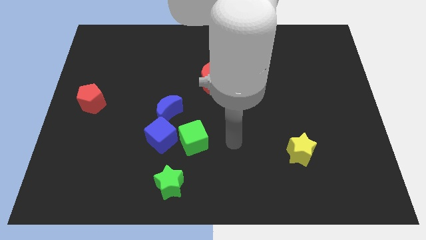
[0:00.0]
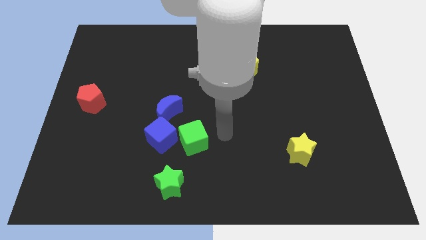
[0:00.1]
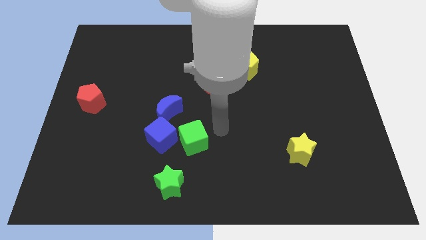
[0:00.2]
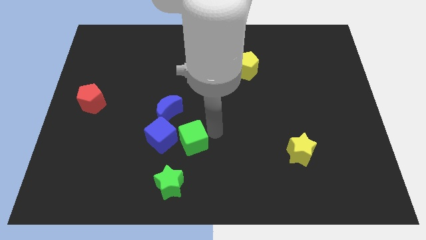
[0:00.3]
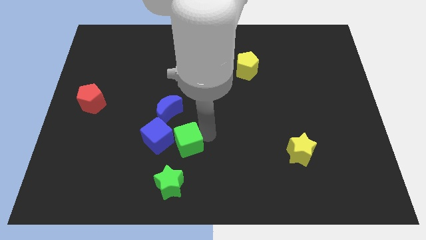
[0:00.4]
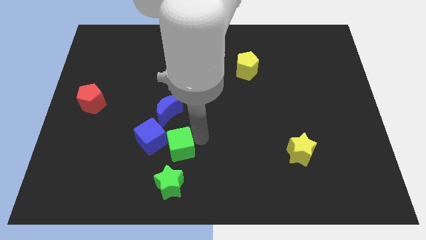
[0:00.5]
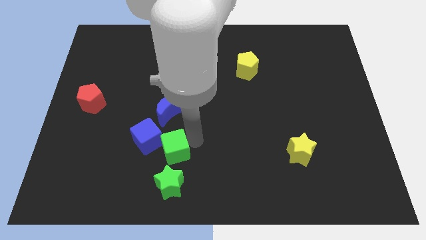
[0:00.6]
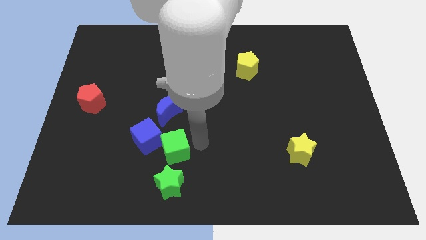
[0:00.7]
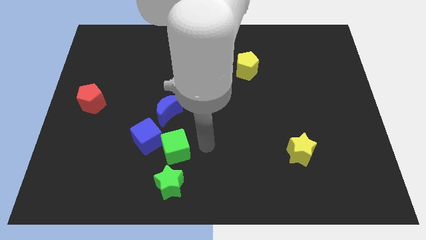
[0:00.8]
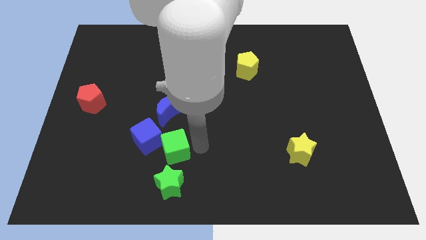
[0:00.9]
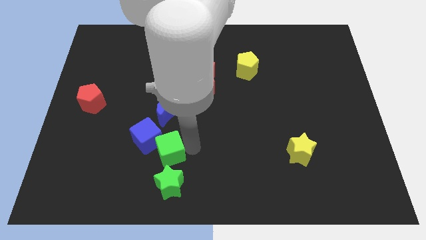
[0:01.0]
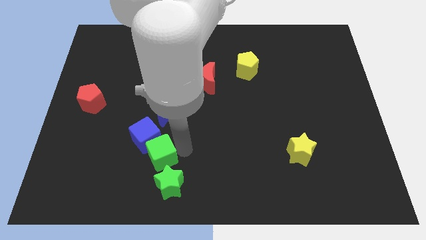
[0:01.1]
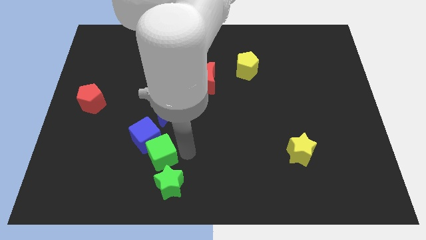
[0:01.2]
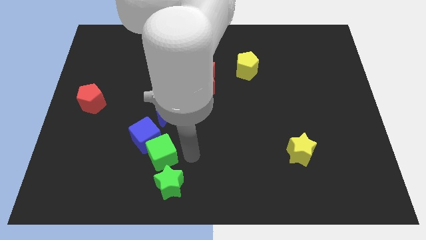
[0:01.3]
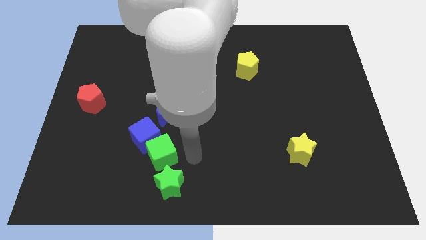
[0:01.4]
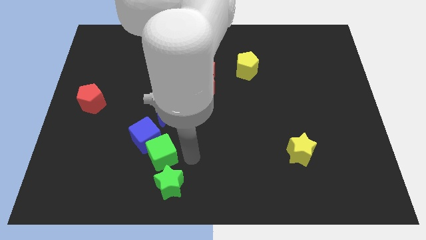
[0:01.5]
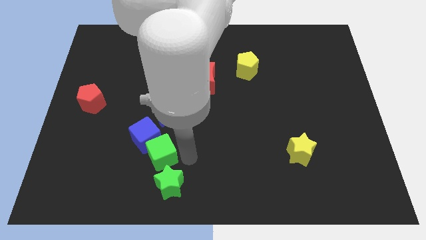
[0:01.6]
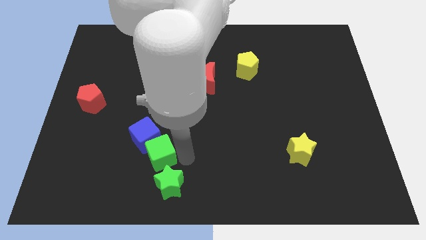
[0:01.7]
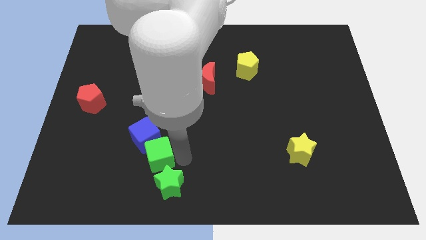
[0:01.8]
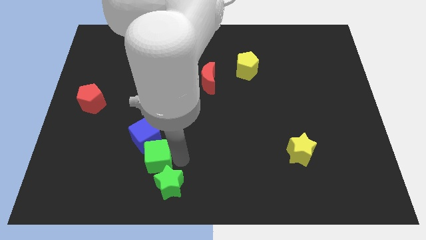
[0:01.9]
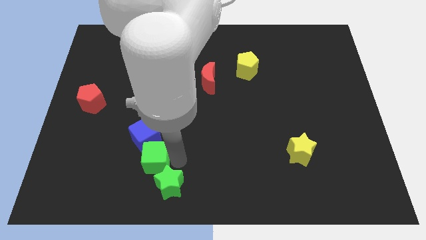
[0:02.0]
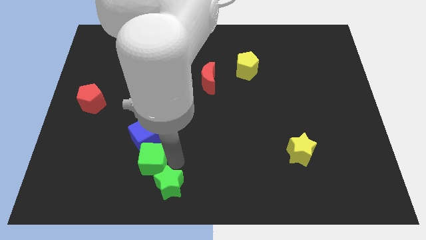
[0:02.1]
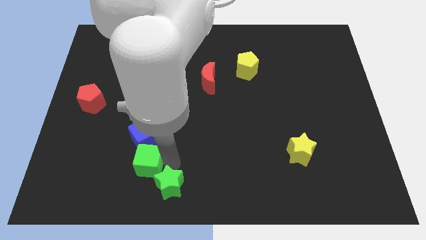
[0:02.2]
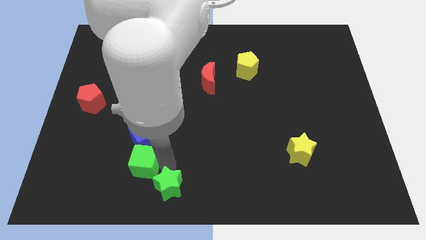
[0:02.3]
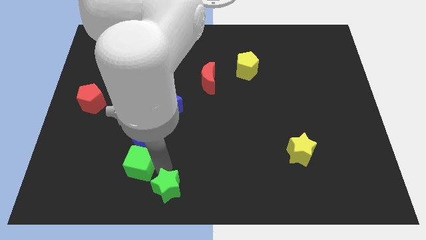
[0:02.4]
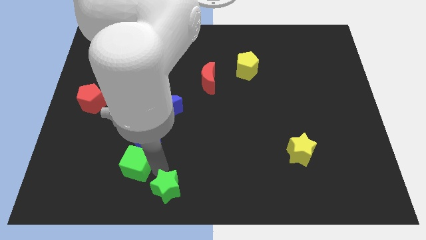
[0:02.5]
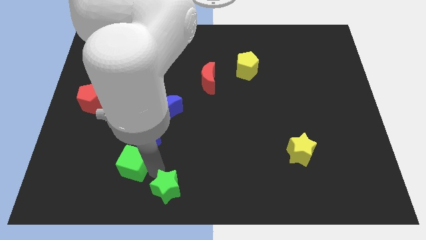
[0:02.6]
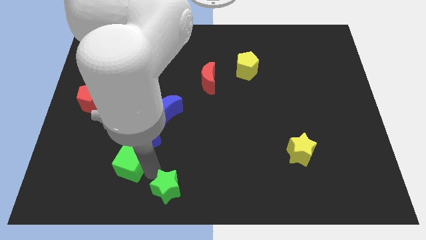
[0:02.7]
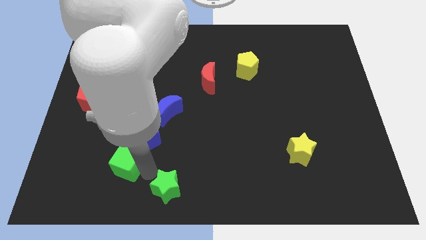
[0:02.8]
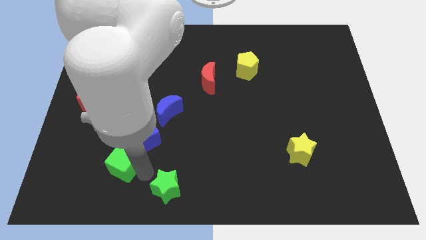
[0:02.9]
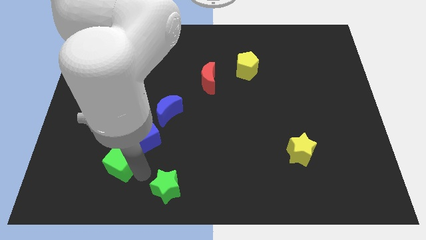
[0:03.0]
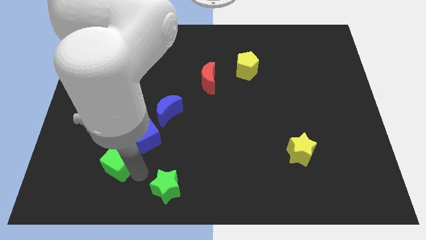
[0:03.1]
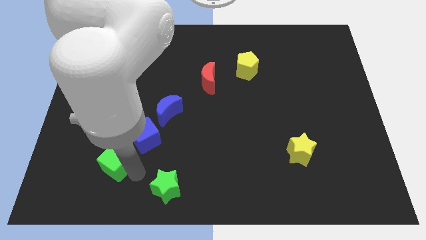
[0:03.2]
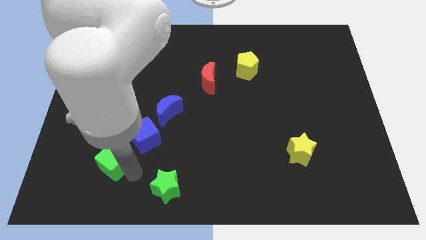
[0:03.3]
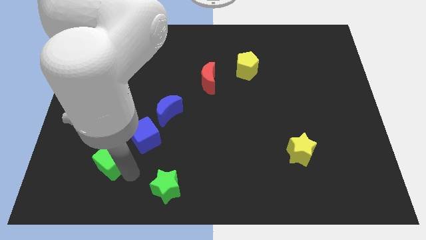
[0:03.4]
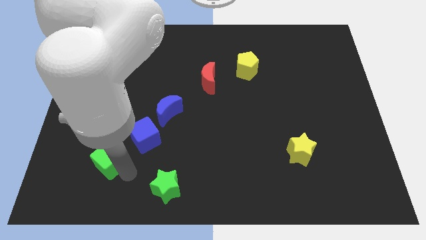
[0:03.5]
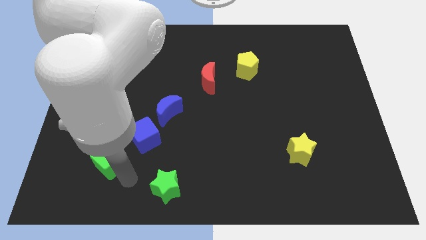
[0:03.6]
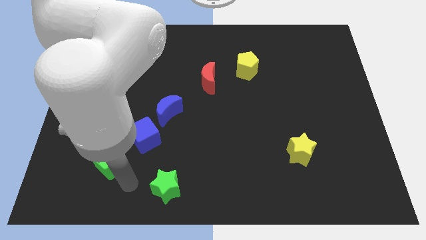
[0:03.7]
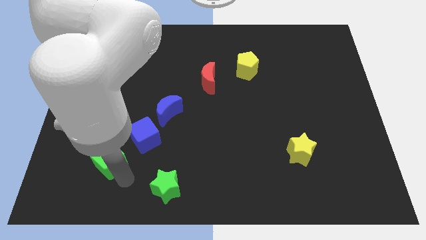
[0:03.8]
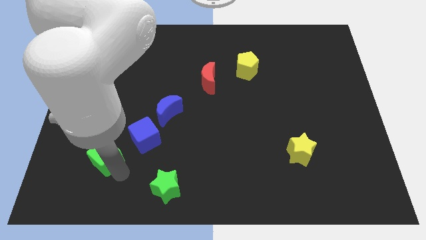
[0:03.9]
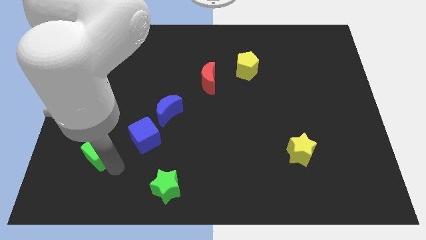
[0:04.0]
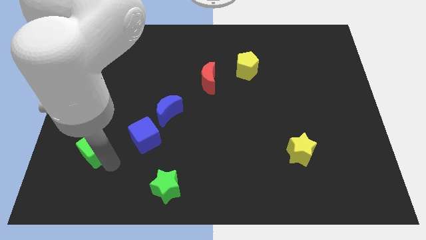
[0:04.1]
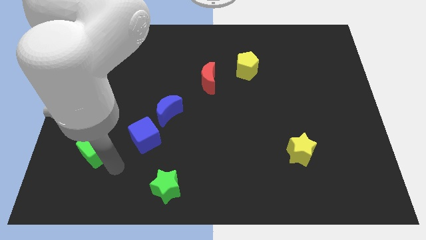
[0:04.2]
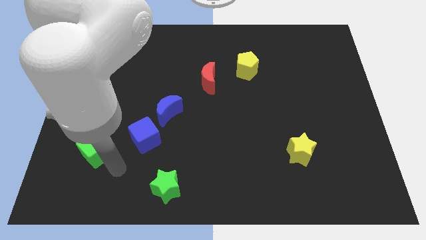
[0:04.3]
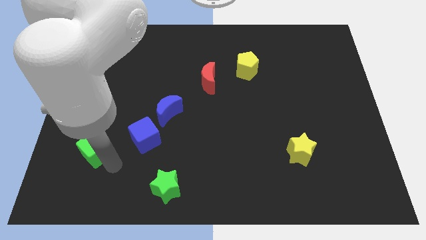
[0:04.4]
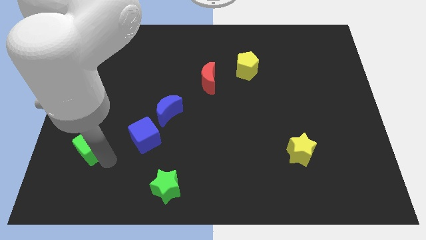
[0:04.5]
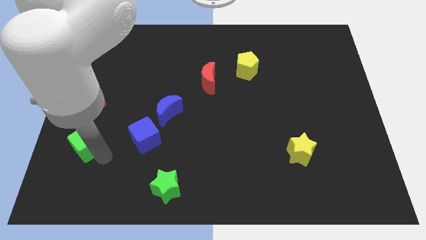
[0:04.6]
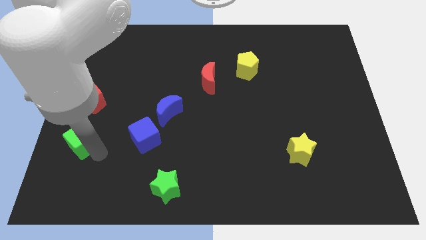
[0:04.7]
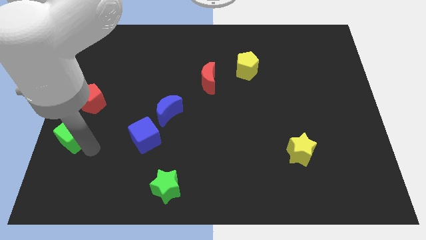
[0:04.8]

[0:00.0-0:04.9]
move the green cube to the left side

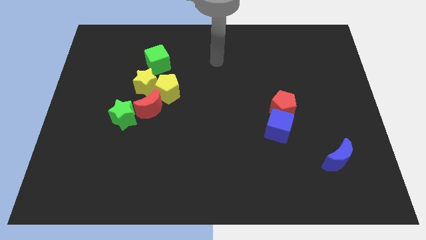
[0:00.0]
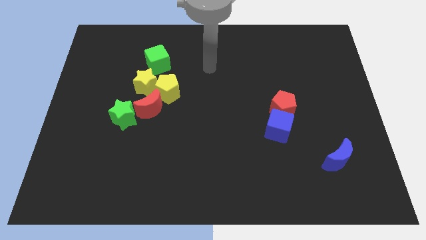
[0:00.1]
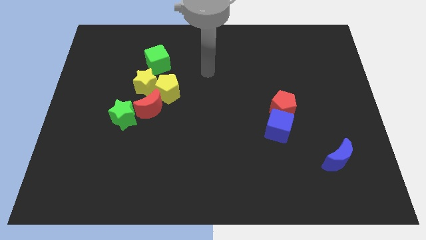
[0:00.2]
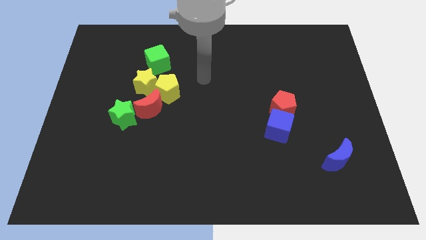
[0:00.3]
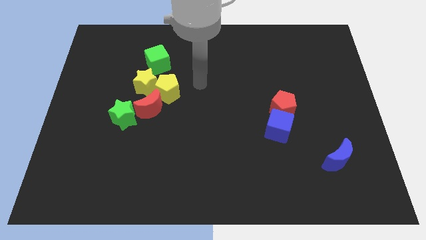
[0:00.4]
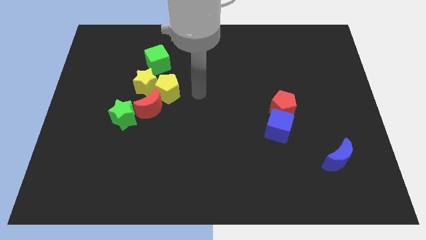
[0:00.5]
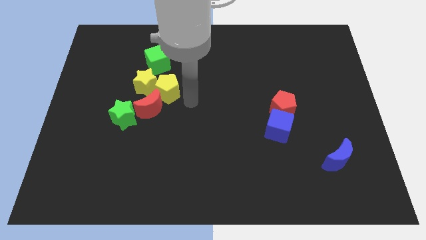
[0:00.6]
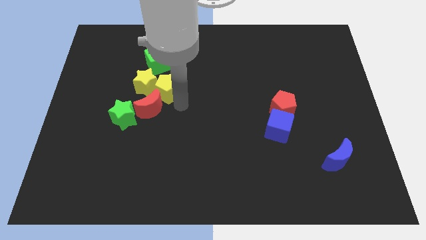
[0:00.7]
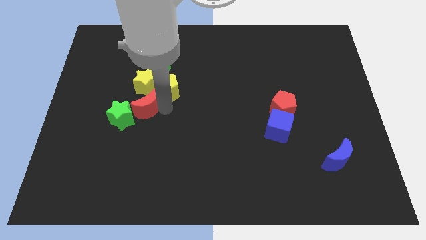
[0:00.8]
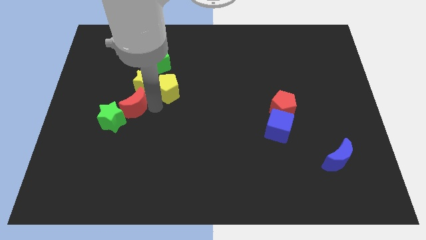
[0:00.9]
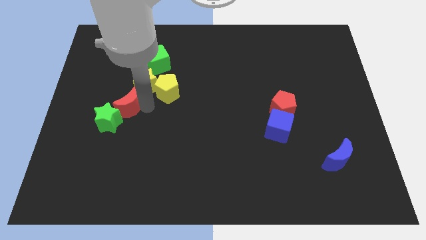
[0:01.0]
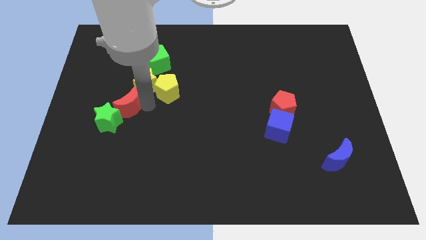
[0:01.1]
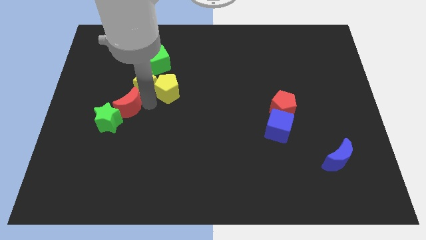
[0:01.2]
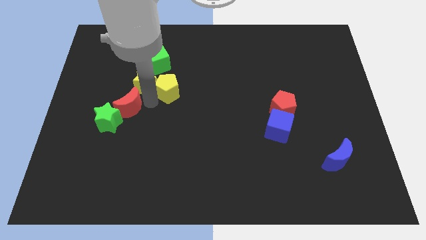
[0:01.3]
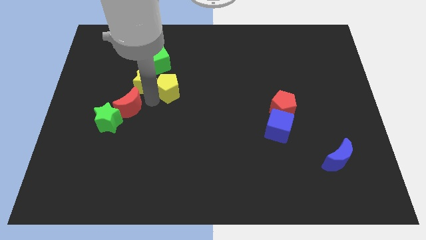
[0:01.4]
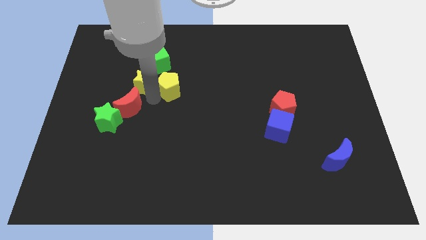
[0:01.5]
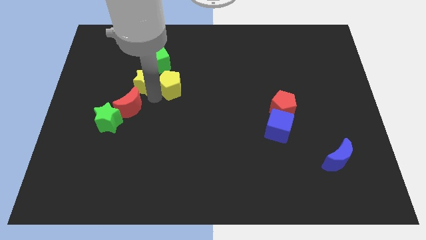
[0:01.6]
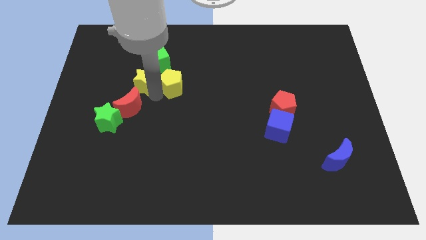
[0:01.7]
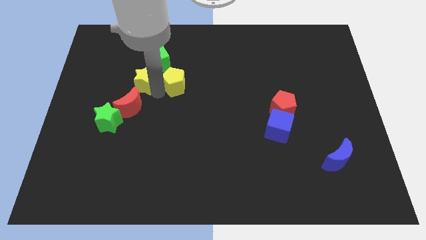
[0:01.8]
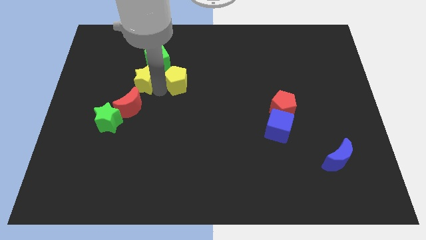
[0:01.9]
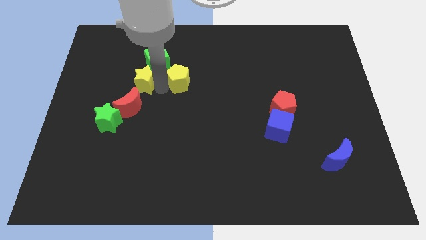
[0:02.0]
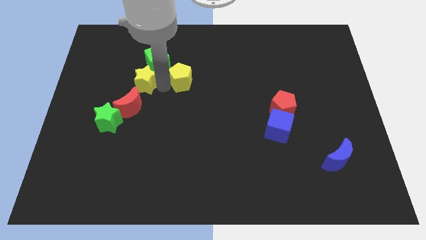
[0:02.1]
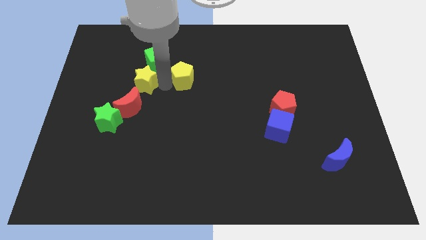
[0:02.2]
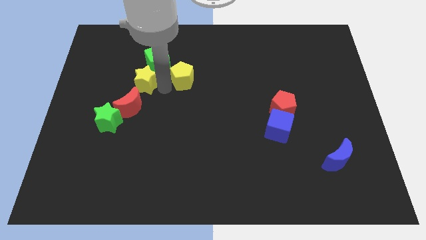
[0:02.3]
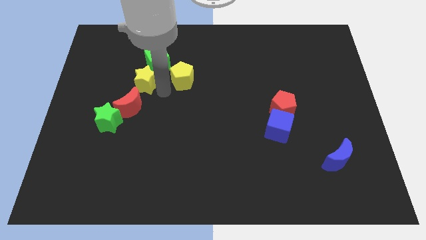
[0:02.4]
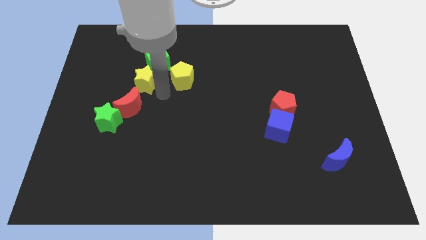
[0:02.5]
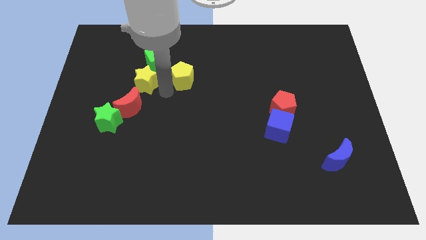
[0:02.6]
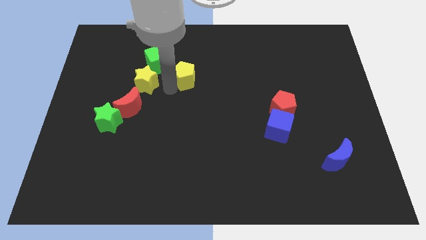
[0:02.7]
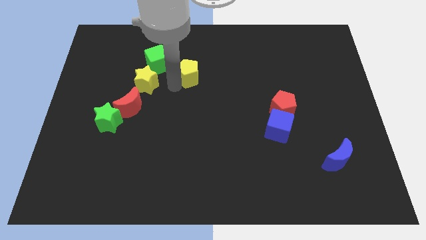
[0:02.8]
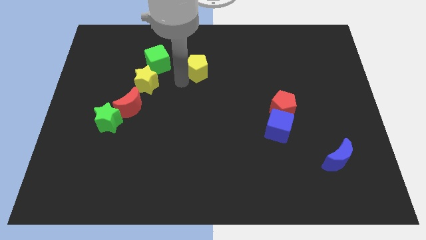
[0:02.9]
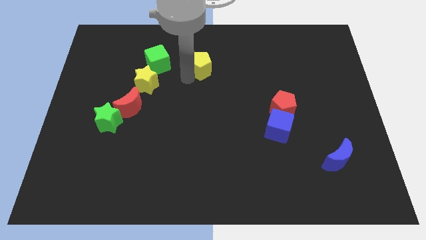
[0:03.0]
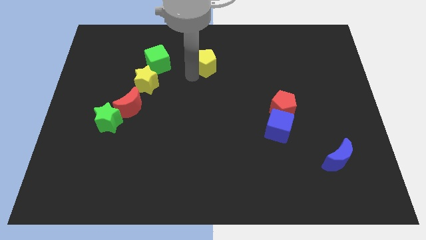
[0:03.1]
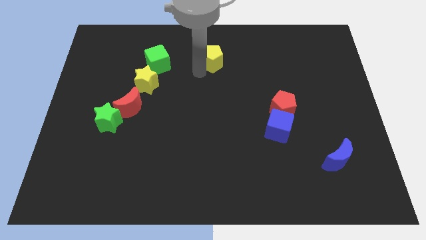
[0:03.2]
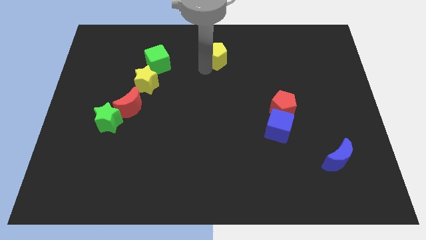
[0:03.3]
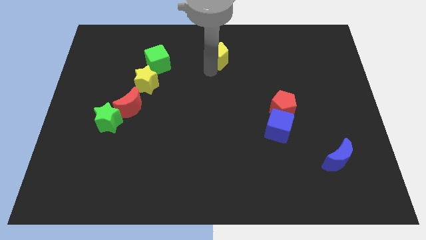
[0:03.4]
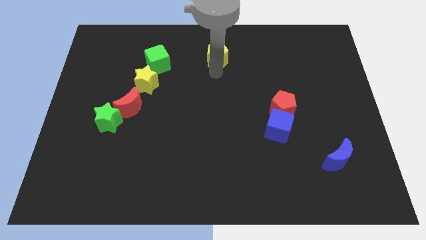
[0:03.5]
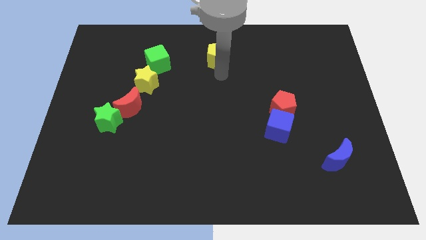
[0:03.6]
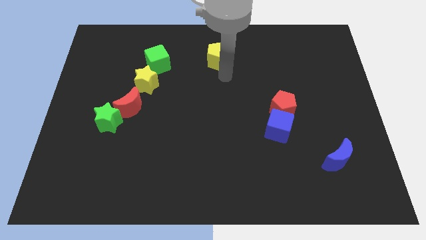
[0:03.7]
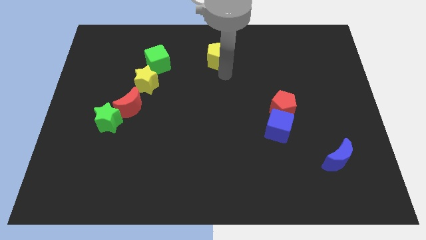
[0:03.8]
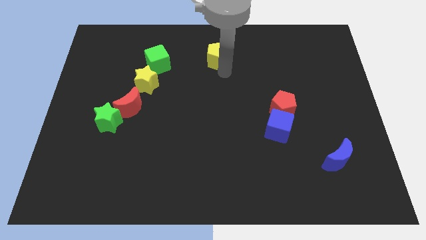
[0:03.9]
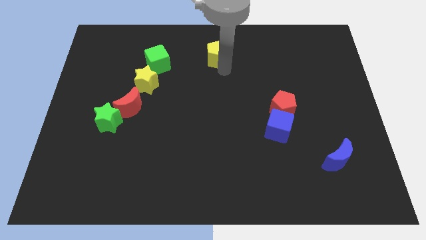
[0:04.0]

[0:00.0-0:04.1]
slide the yellow pentagon to the top side
